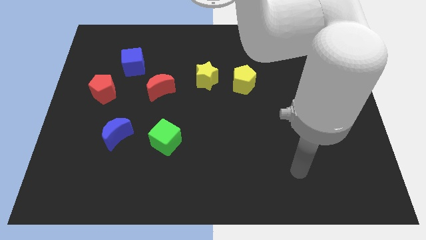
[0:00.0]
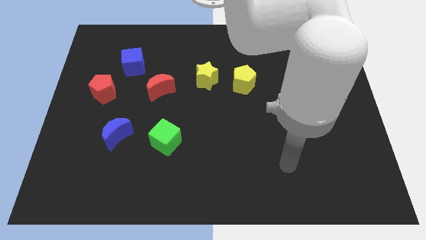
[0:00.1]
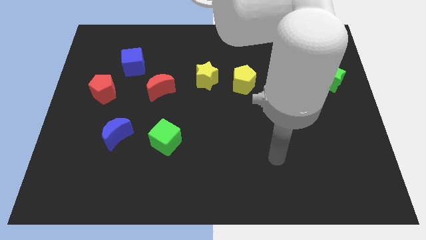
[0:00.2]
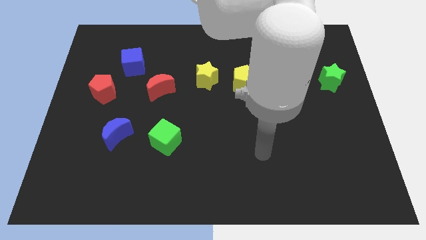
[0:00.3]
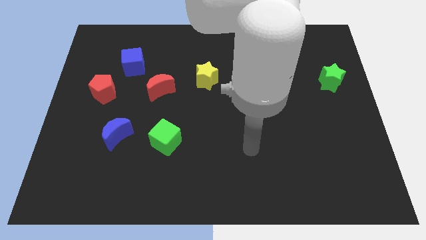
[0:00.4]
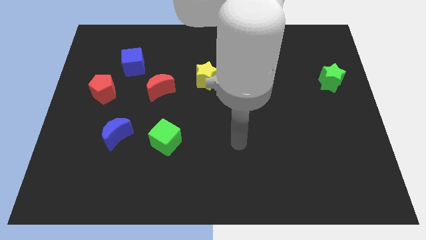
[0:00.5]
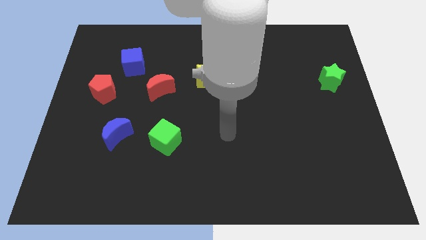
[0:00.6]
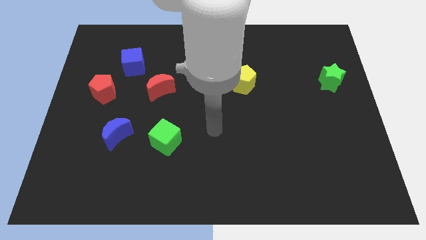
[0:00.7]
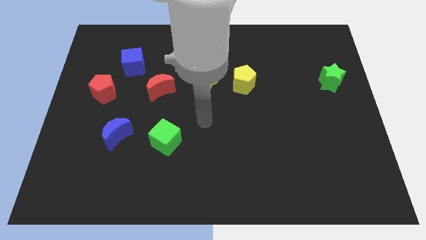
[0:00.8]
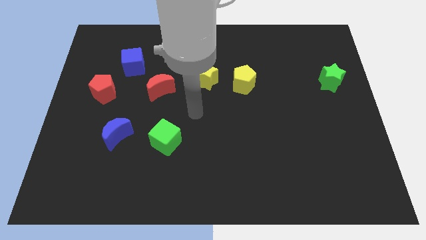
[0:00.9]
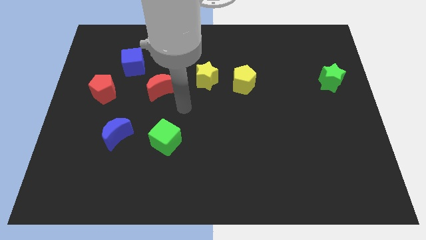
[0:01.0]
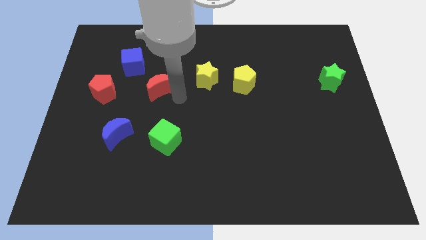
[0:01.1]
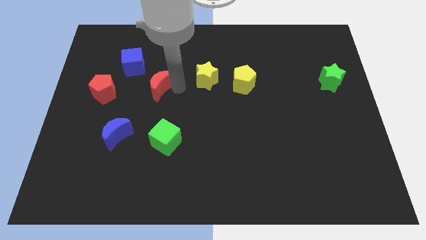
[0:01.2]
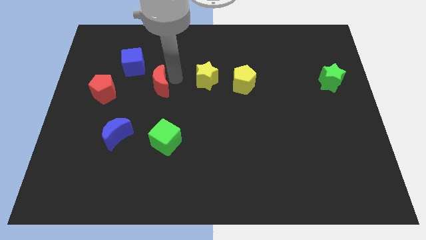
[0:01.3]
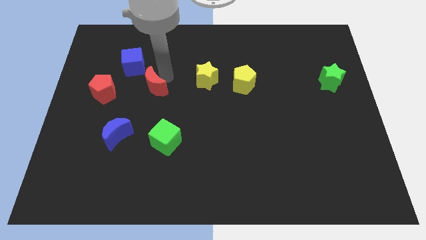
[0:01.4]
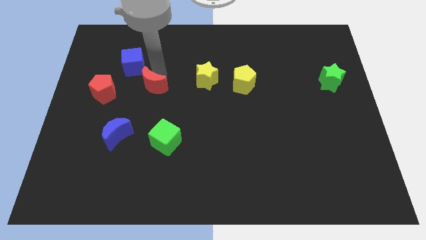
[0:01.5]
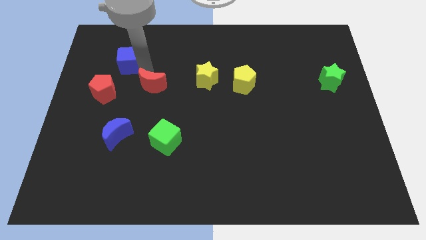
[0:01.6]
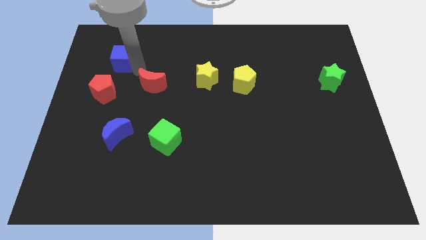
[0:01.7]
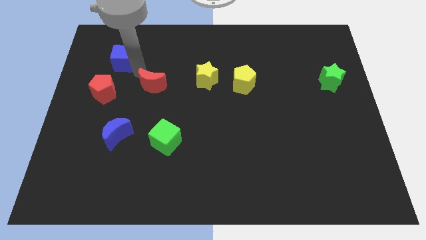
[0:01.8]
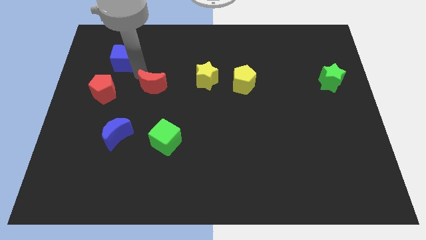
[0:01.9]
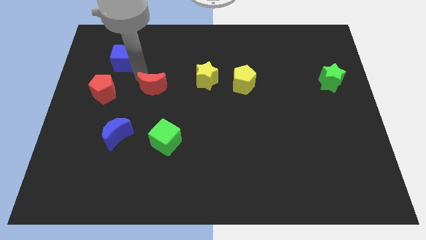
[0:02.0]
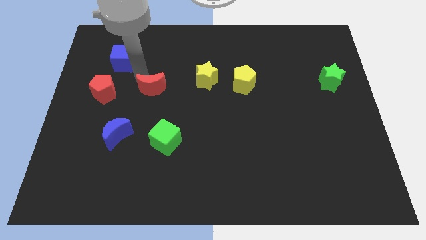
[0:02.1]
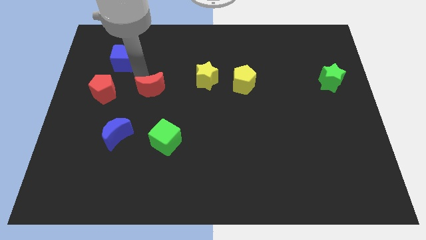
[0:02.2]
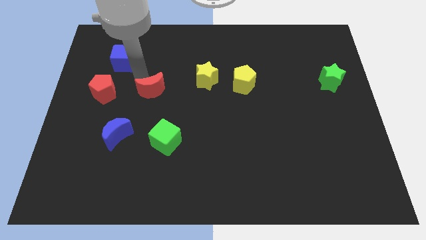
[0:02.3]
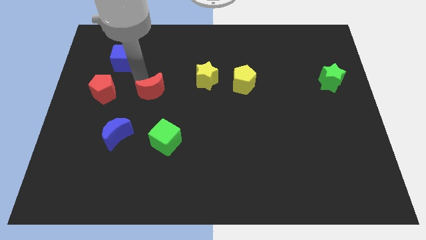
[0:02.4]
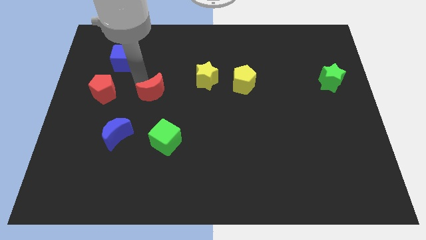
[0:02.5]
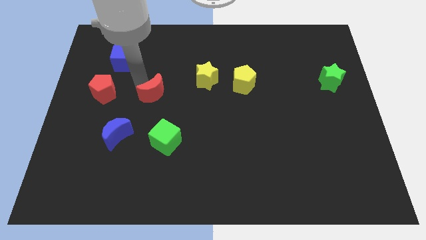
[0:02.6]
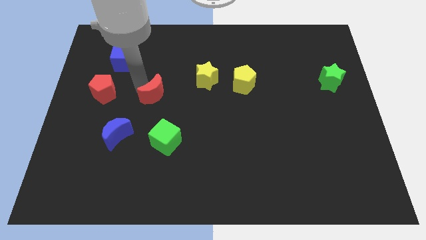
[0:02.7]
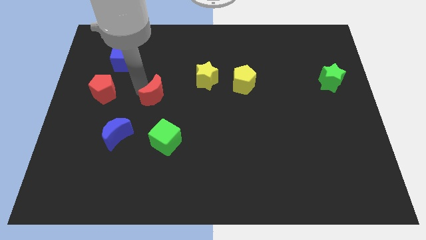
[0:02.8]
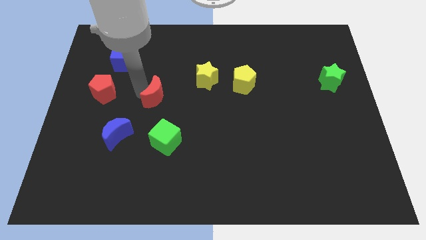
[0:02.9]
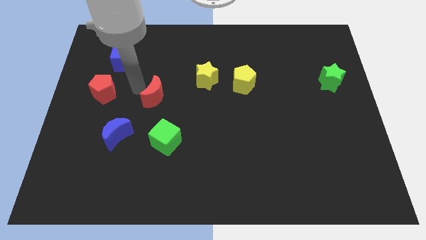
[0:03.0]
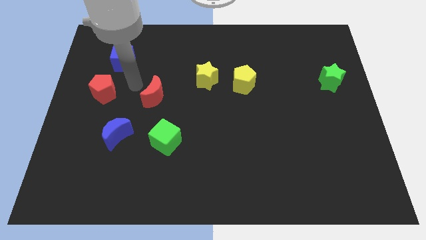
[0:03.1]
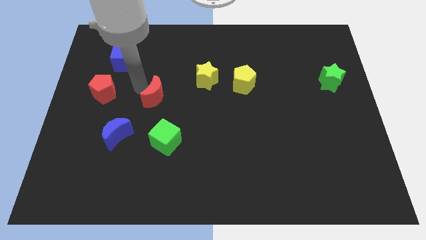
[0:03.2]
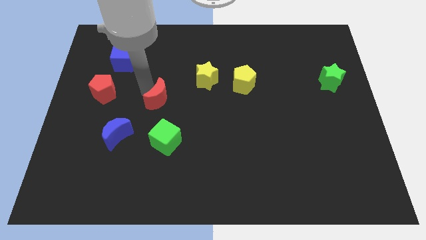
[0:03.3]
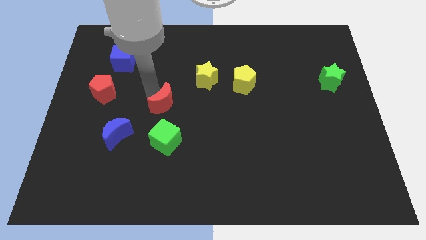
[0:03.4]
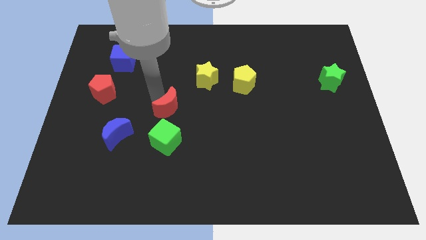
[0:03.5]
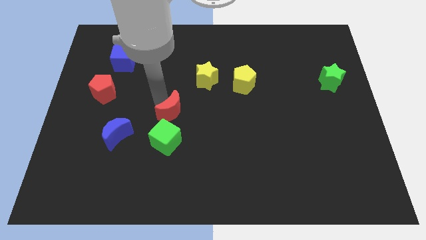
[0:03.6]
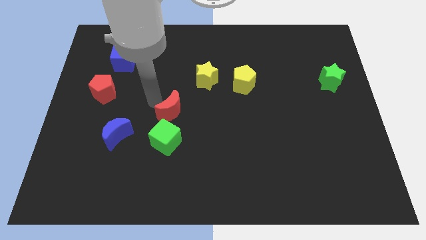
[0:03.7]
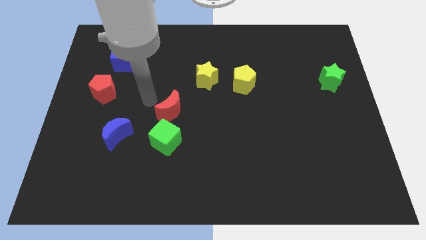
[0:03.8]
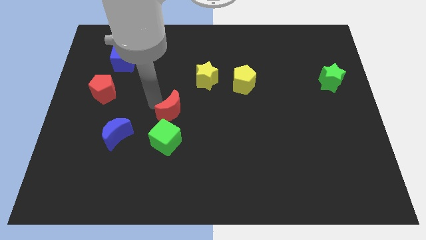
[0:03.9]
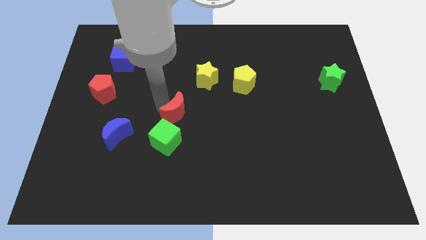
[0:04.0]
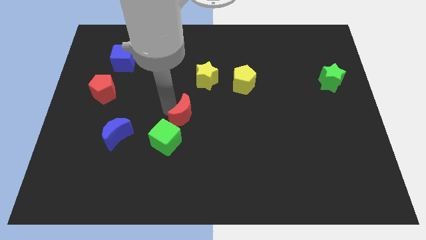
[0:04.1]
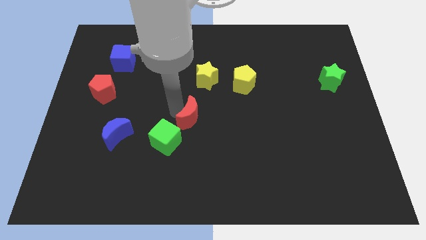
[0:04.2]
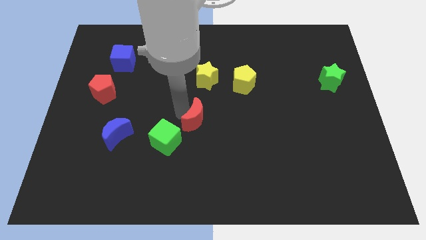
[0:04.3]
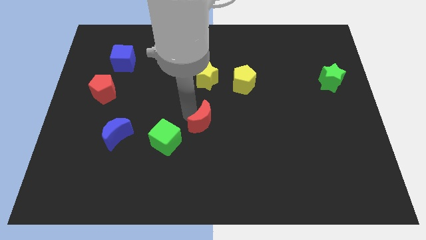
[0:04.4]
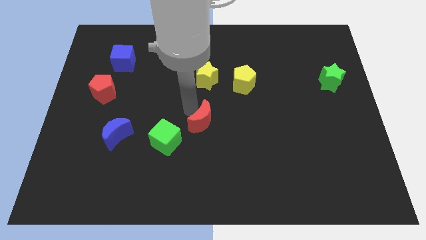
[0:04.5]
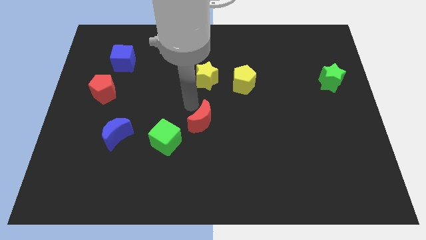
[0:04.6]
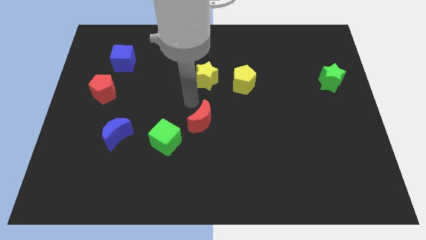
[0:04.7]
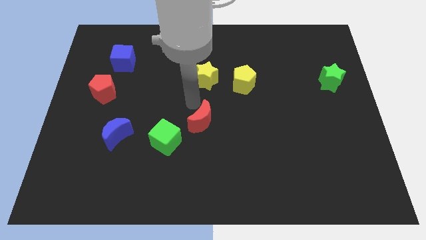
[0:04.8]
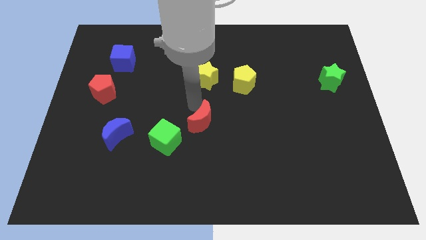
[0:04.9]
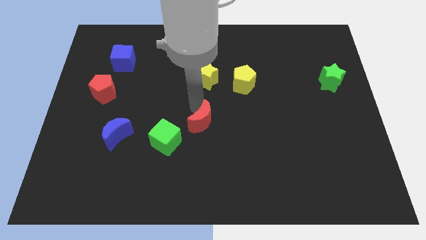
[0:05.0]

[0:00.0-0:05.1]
slide the red moon just right of the green cube

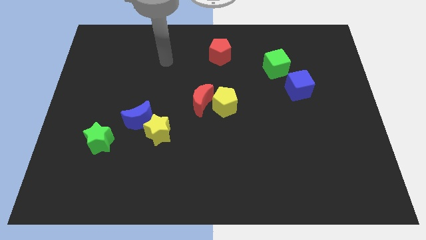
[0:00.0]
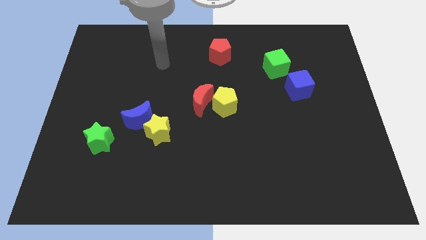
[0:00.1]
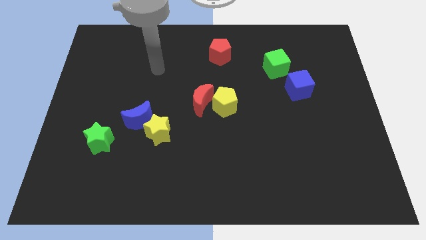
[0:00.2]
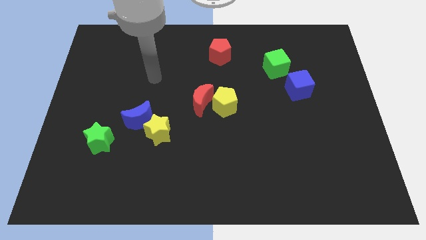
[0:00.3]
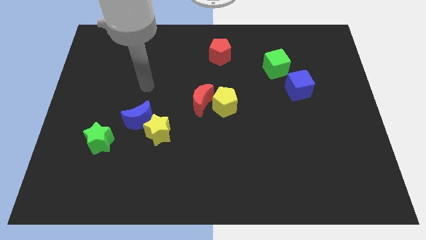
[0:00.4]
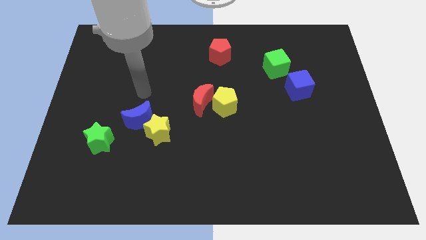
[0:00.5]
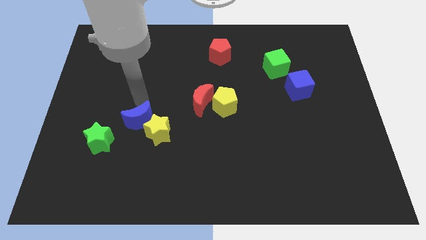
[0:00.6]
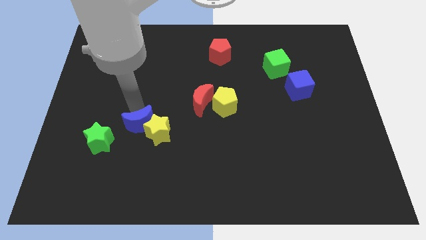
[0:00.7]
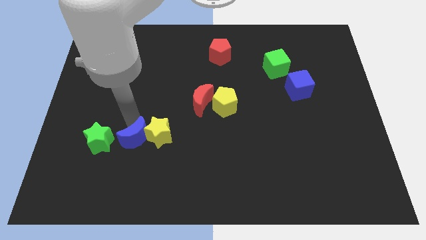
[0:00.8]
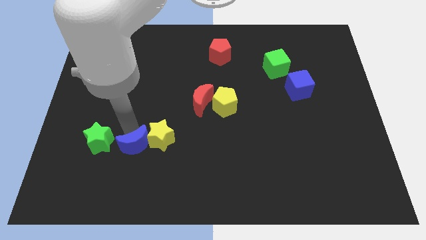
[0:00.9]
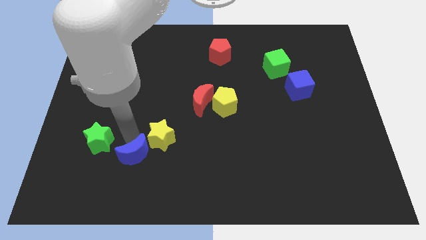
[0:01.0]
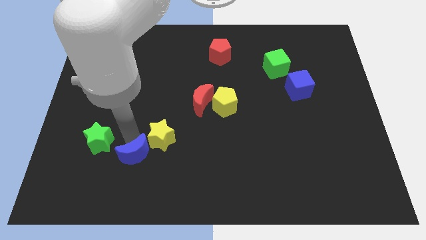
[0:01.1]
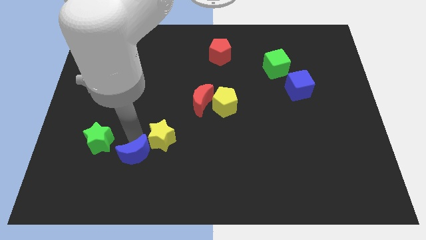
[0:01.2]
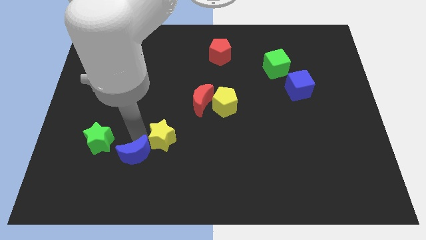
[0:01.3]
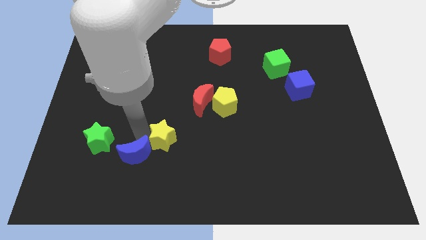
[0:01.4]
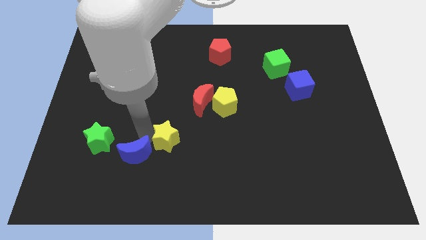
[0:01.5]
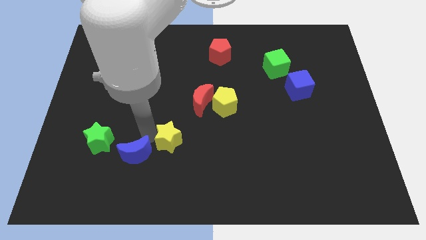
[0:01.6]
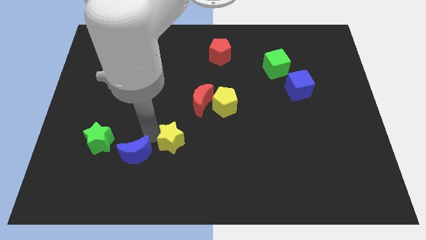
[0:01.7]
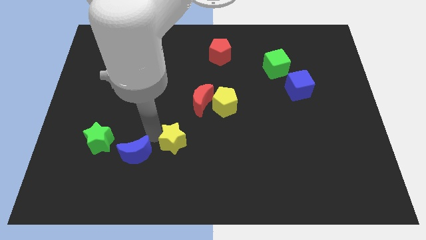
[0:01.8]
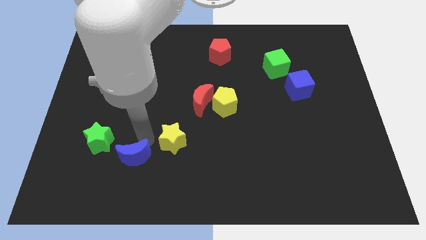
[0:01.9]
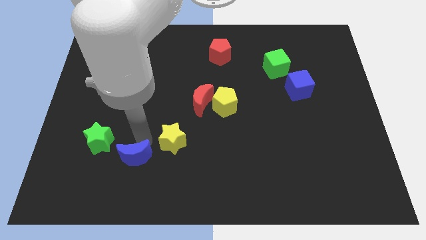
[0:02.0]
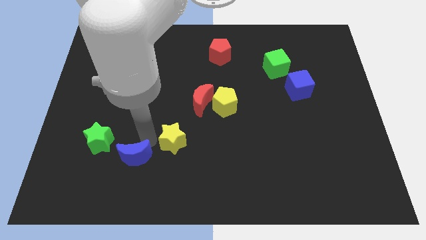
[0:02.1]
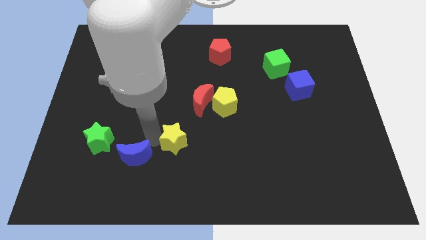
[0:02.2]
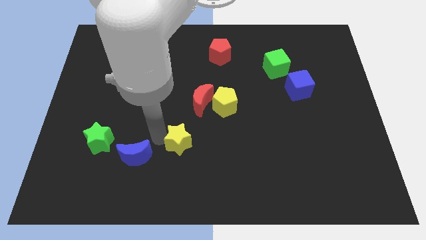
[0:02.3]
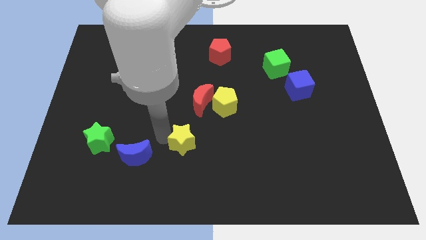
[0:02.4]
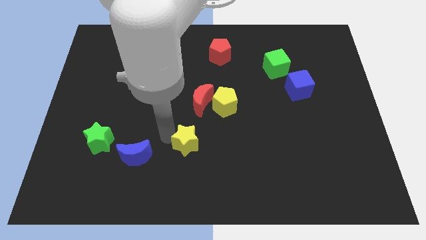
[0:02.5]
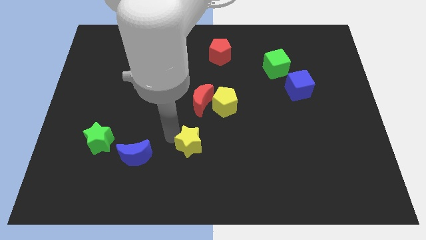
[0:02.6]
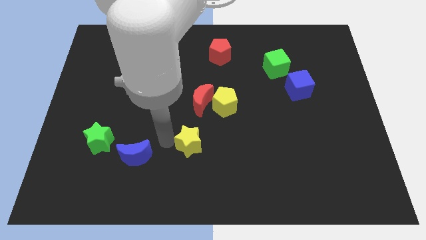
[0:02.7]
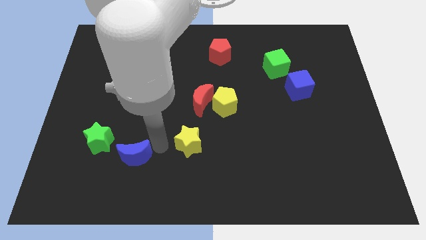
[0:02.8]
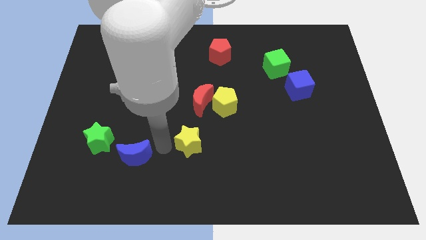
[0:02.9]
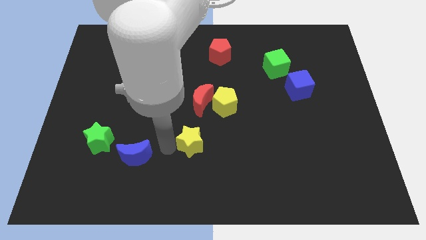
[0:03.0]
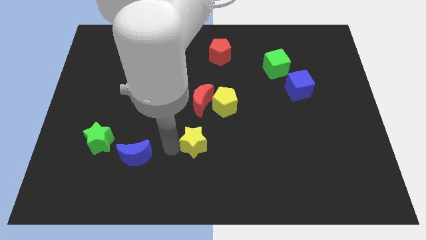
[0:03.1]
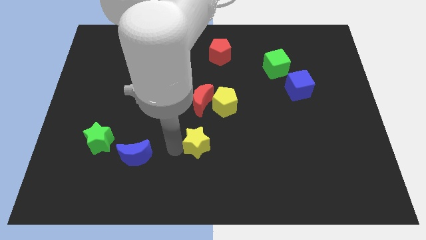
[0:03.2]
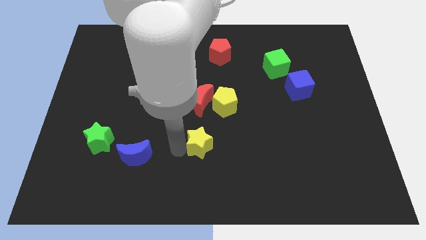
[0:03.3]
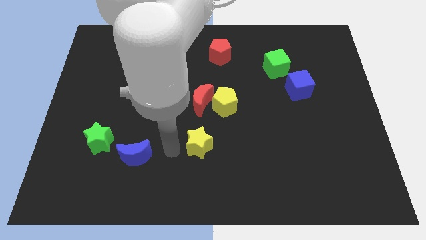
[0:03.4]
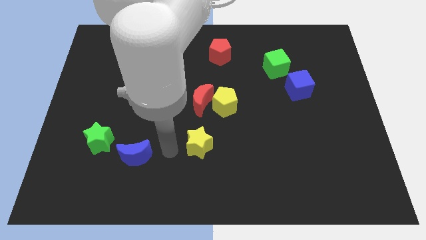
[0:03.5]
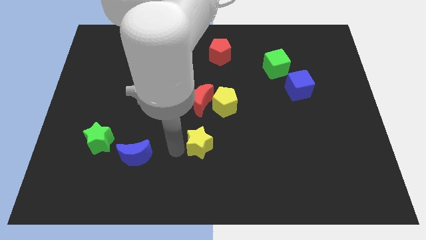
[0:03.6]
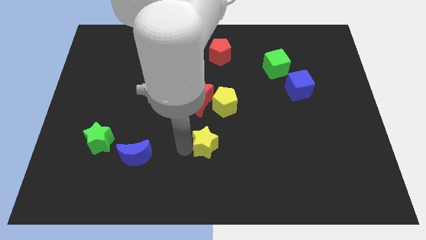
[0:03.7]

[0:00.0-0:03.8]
push the yellow star to the bottom side of the yellow pentagon
